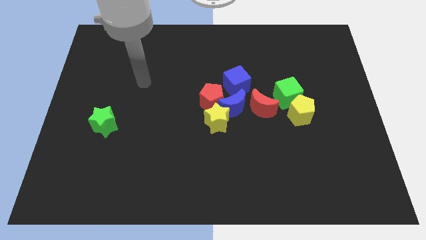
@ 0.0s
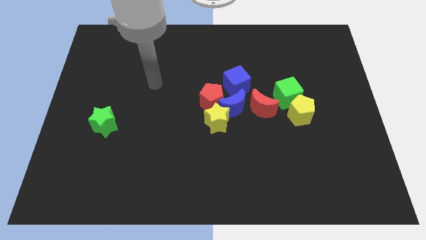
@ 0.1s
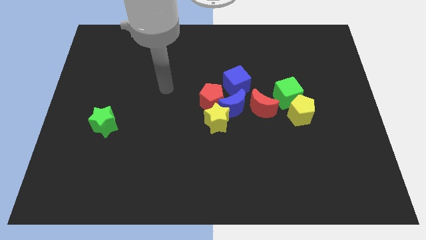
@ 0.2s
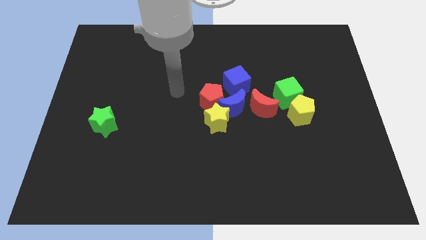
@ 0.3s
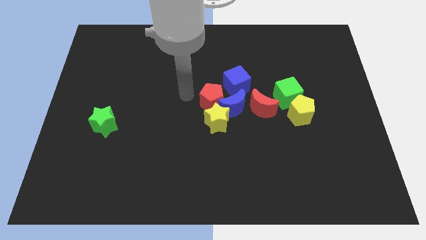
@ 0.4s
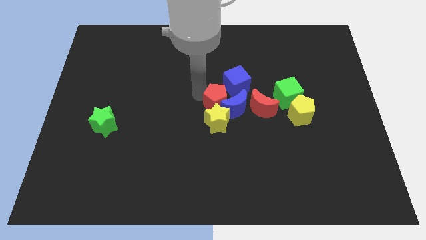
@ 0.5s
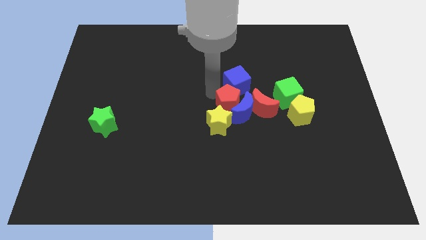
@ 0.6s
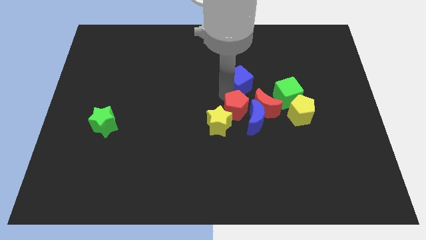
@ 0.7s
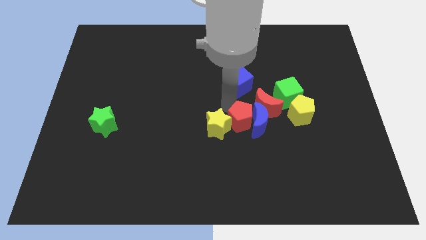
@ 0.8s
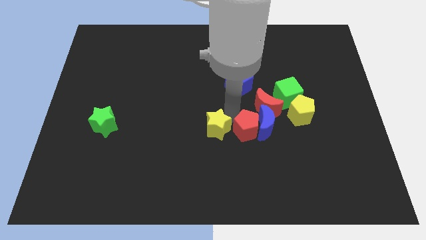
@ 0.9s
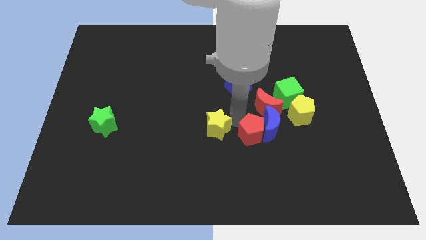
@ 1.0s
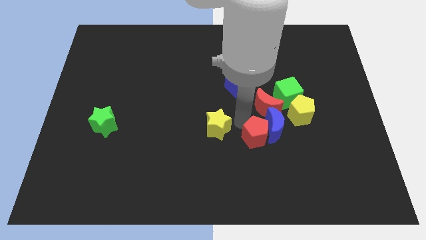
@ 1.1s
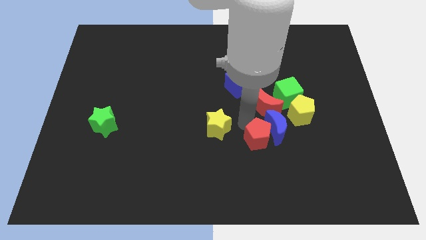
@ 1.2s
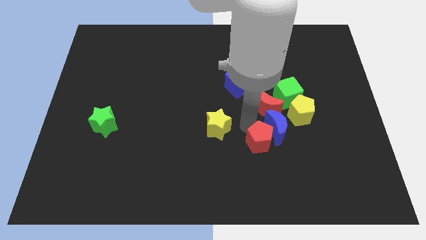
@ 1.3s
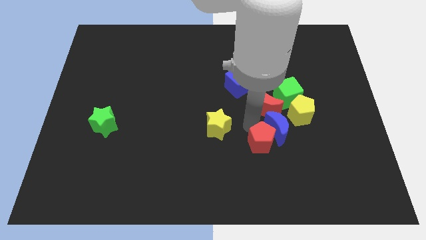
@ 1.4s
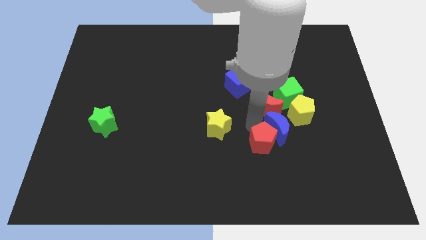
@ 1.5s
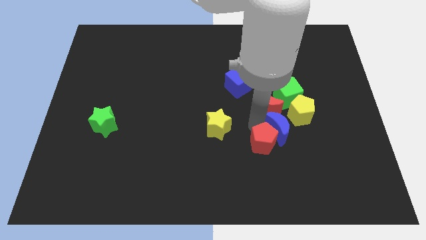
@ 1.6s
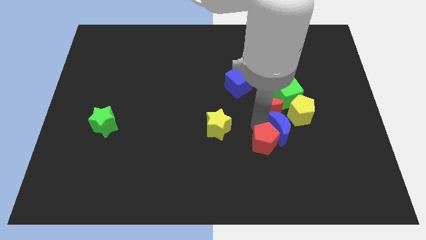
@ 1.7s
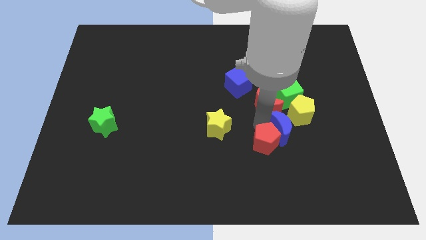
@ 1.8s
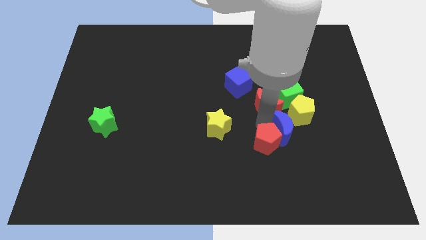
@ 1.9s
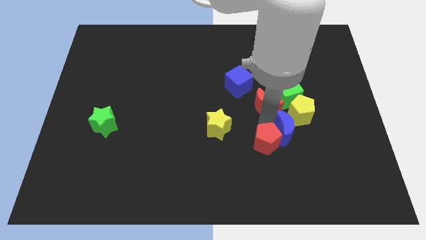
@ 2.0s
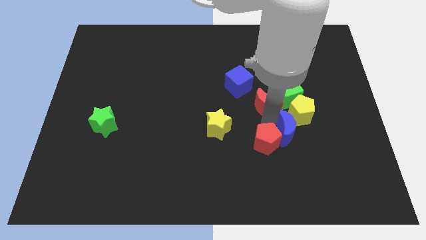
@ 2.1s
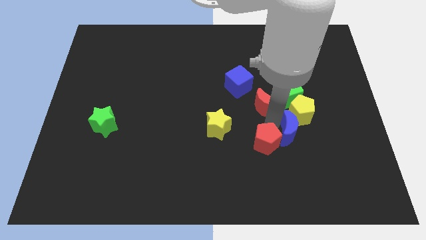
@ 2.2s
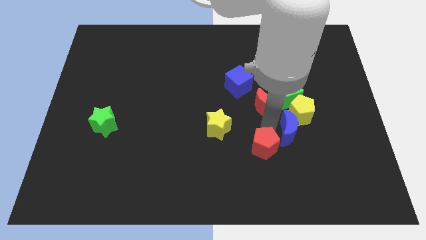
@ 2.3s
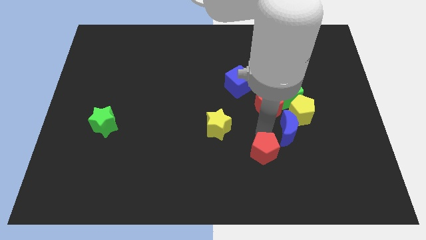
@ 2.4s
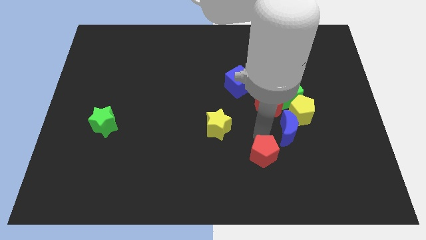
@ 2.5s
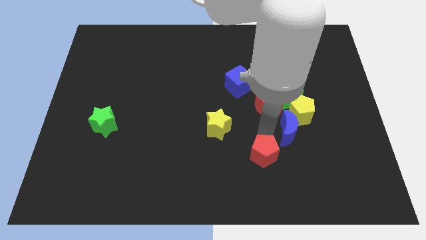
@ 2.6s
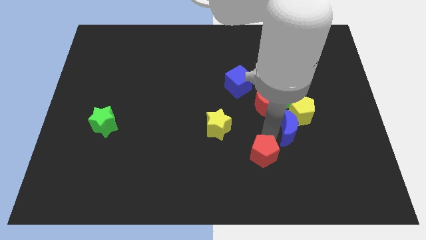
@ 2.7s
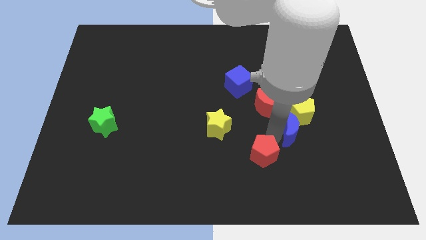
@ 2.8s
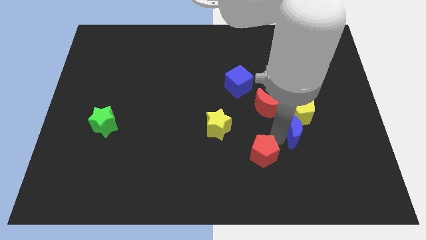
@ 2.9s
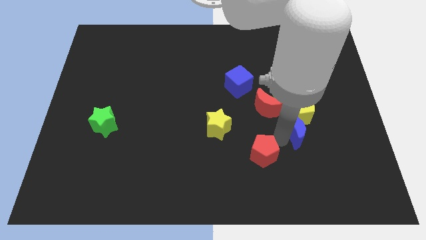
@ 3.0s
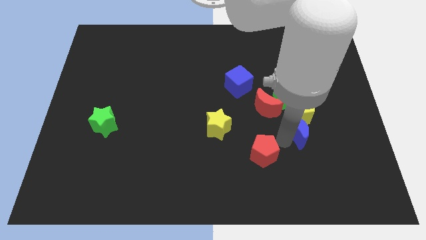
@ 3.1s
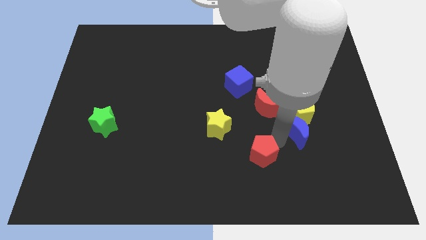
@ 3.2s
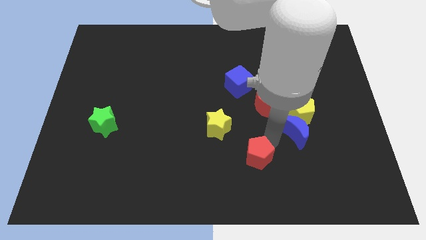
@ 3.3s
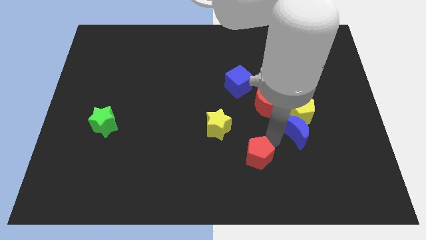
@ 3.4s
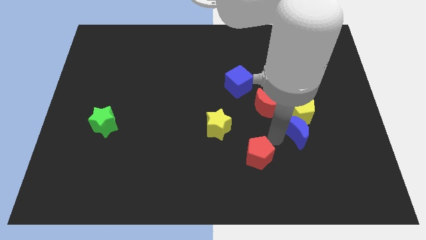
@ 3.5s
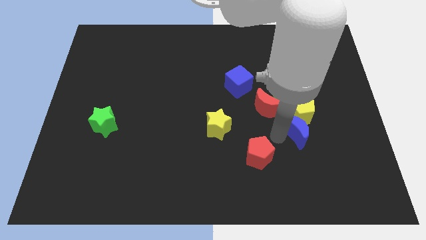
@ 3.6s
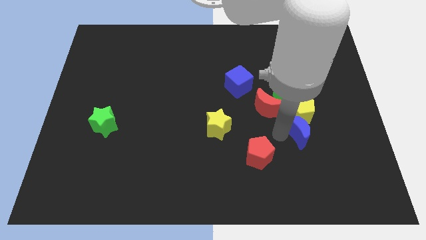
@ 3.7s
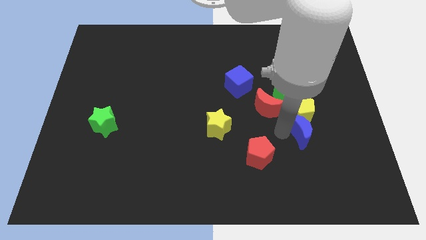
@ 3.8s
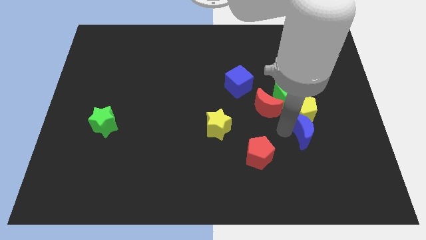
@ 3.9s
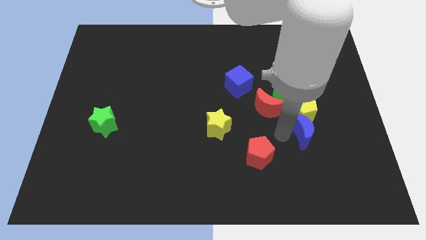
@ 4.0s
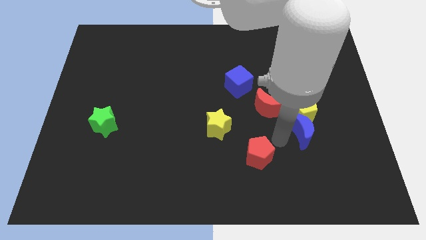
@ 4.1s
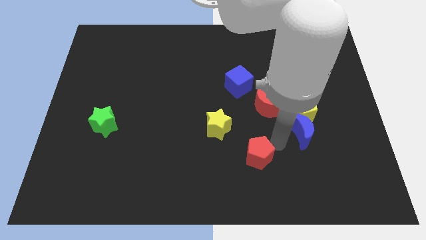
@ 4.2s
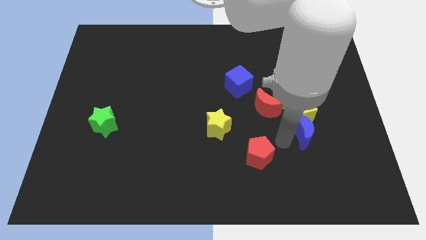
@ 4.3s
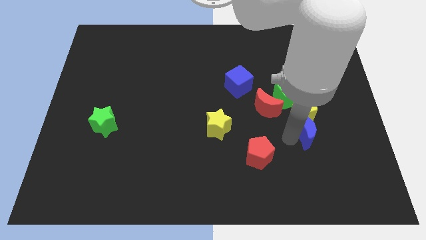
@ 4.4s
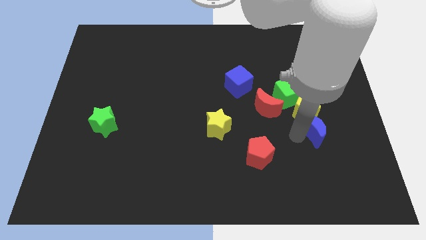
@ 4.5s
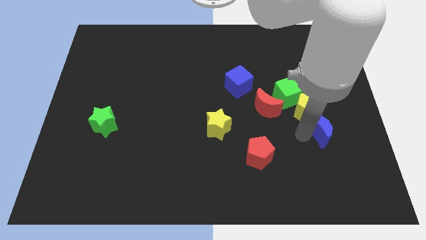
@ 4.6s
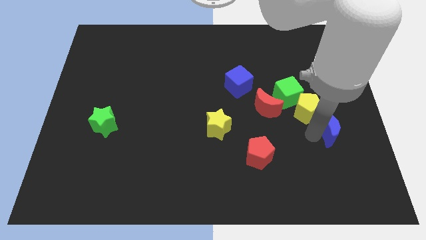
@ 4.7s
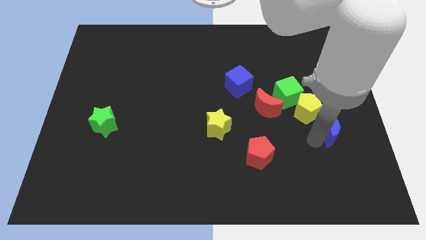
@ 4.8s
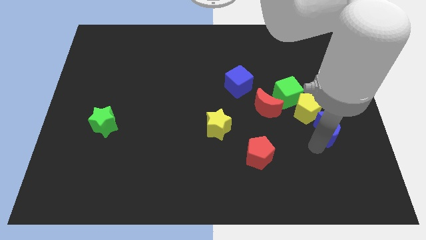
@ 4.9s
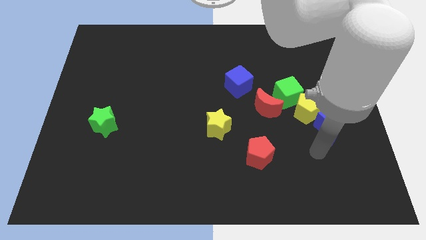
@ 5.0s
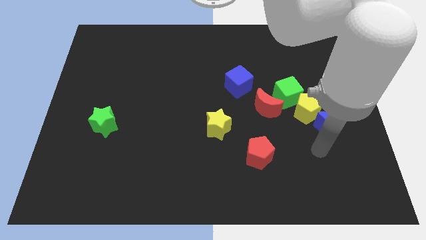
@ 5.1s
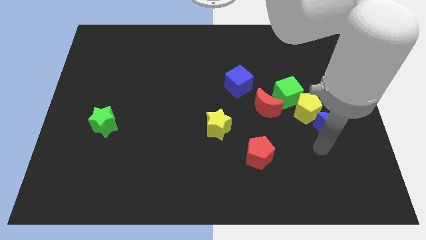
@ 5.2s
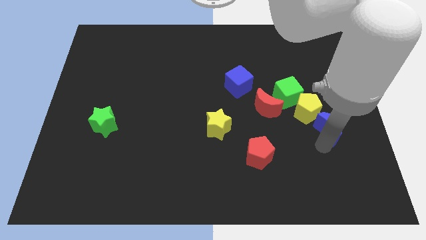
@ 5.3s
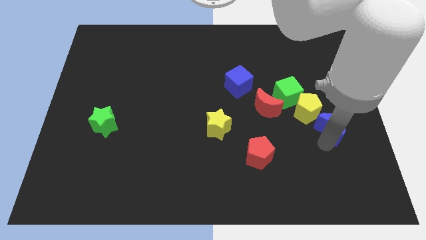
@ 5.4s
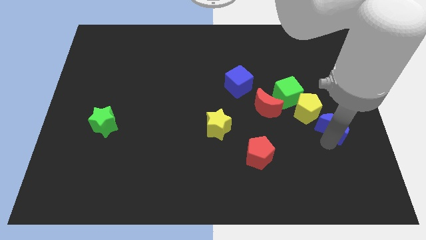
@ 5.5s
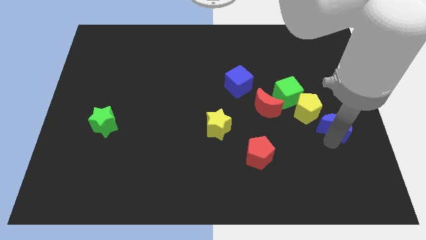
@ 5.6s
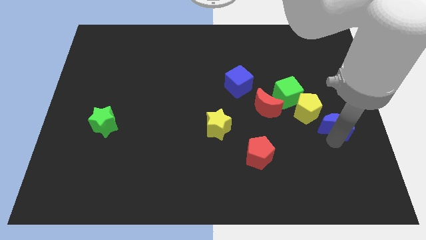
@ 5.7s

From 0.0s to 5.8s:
put the blue moon to the center right
